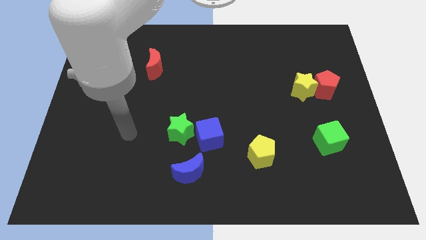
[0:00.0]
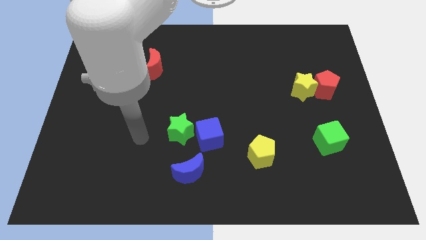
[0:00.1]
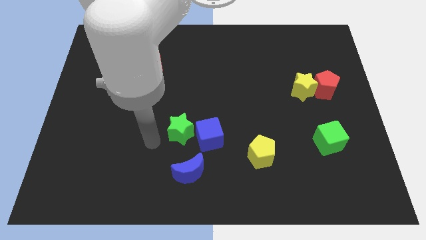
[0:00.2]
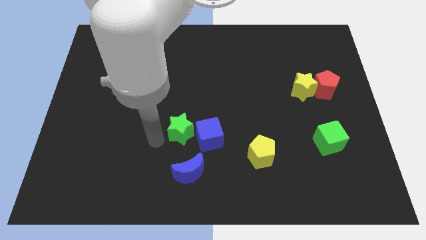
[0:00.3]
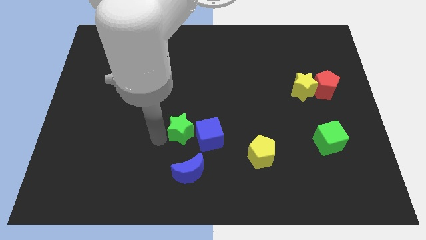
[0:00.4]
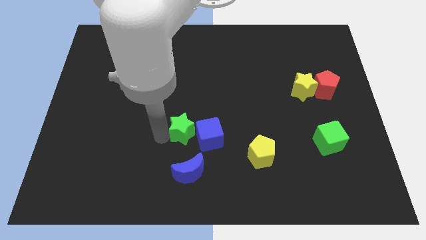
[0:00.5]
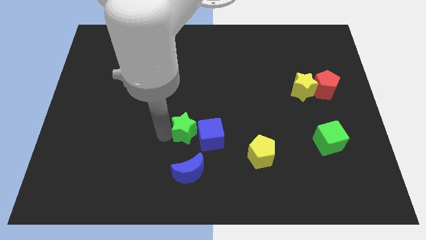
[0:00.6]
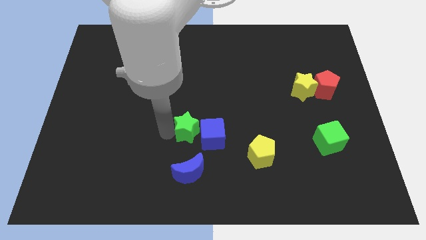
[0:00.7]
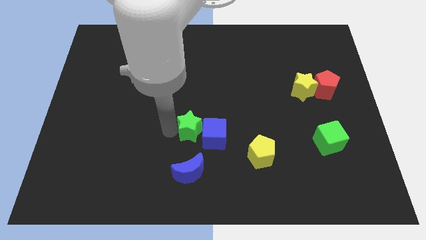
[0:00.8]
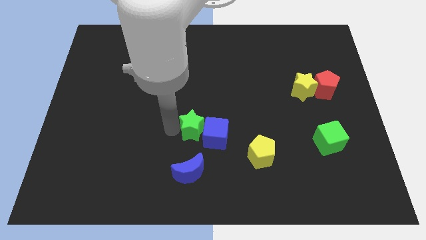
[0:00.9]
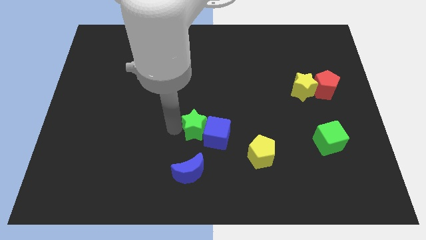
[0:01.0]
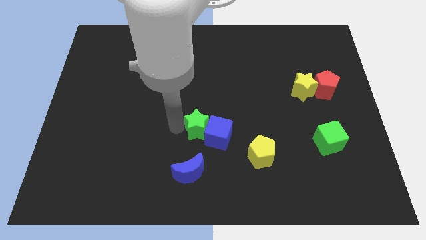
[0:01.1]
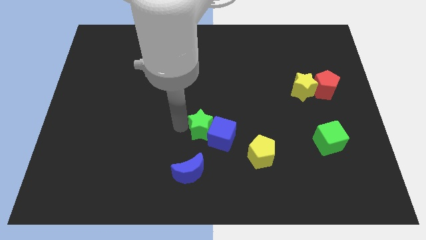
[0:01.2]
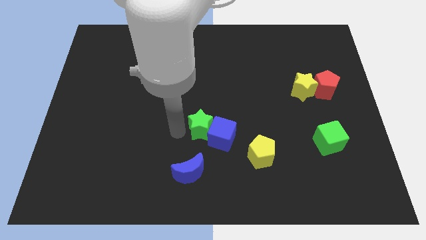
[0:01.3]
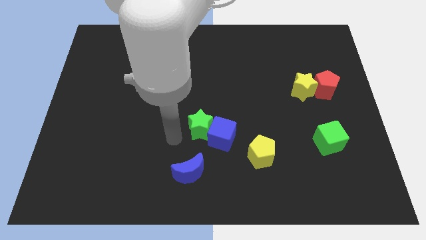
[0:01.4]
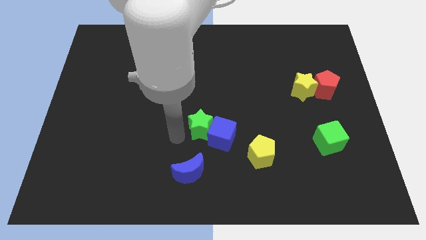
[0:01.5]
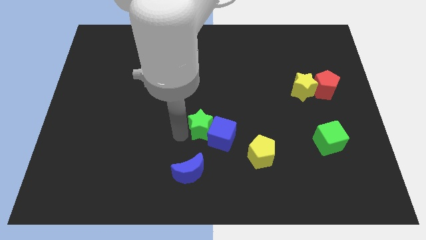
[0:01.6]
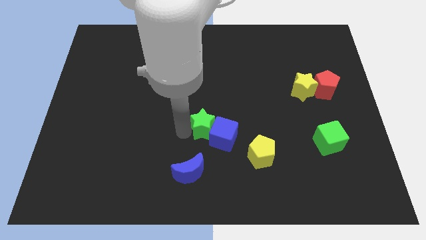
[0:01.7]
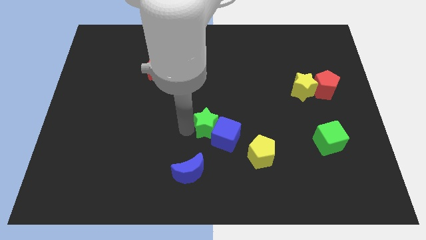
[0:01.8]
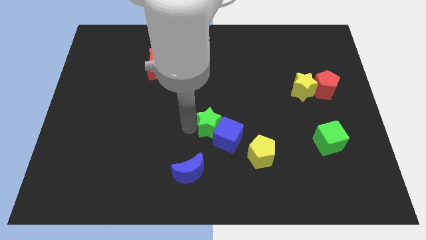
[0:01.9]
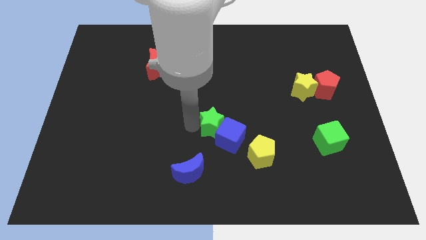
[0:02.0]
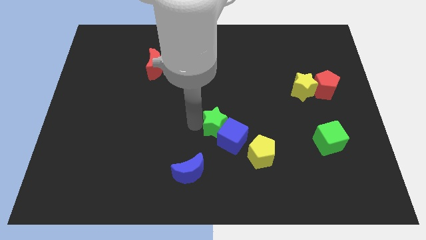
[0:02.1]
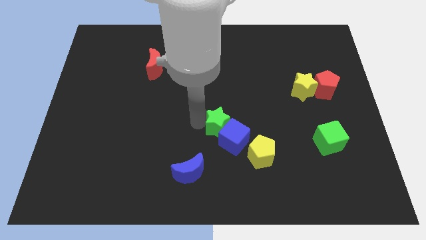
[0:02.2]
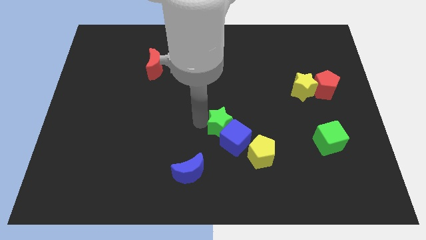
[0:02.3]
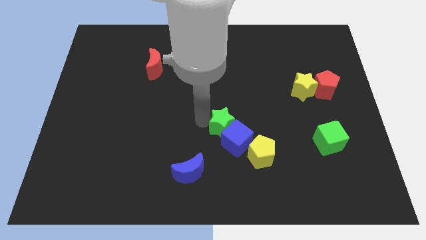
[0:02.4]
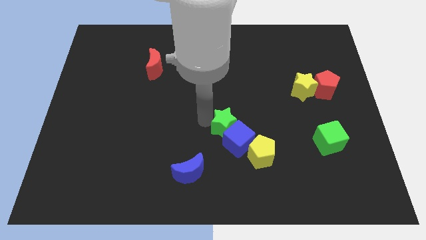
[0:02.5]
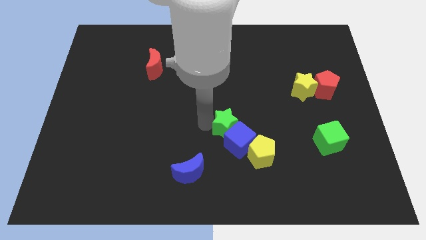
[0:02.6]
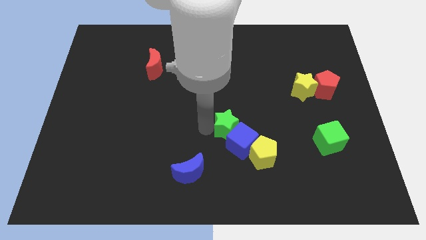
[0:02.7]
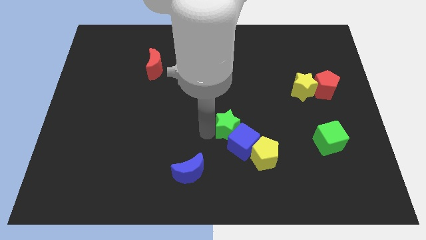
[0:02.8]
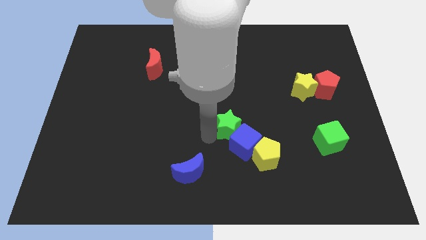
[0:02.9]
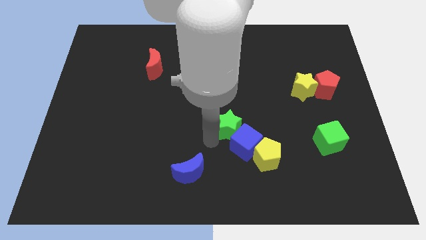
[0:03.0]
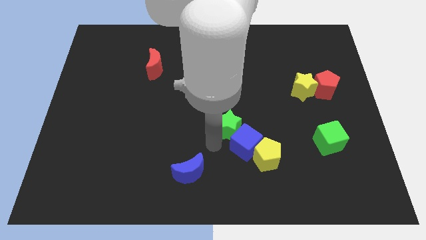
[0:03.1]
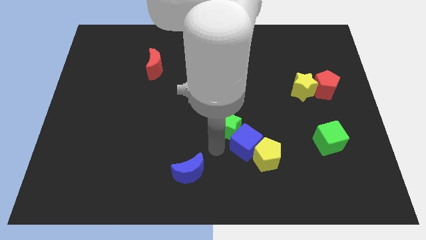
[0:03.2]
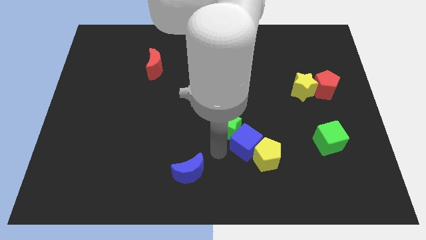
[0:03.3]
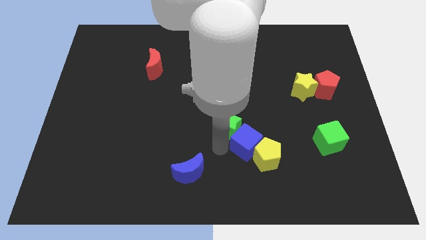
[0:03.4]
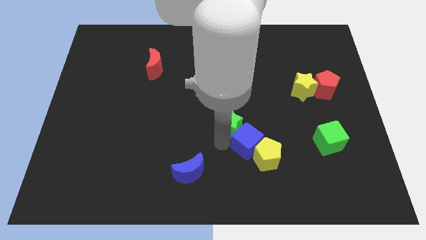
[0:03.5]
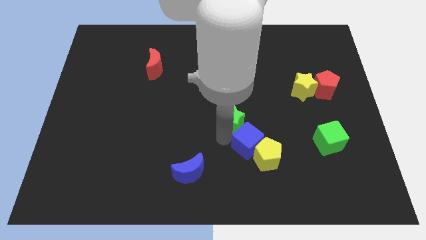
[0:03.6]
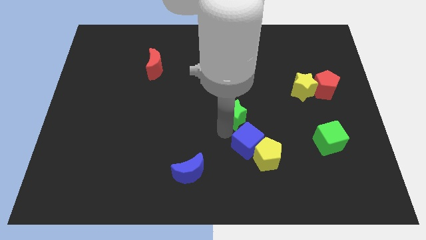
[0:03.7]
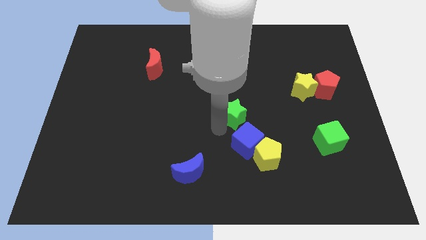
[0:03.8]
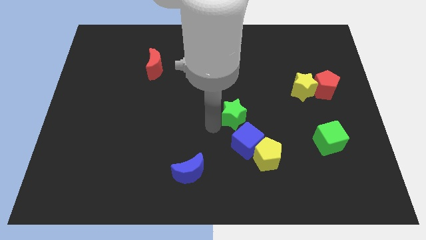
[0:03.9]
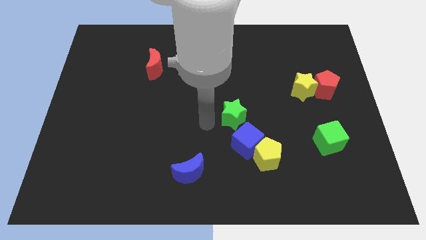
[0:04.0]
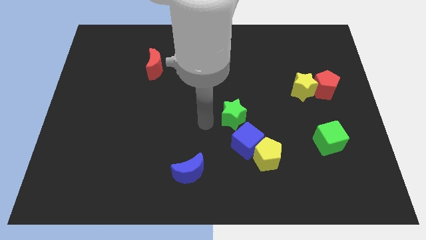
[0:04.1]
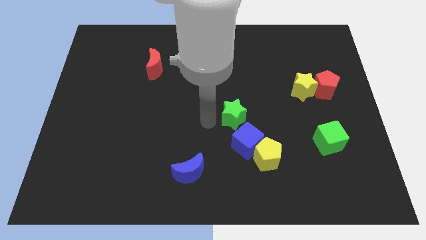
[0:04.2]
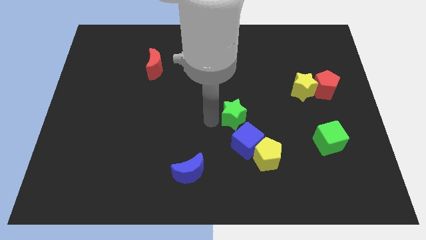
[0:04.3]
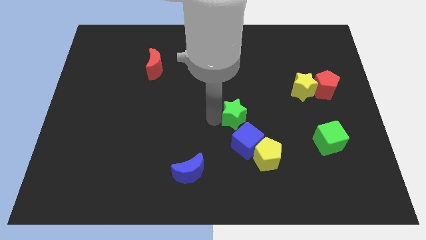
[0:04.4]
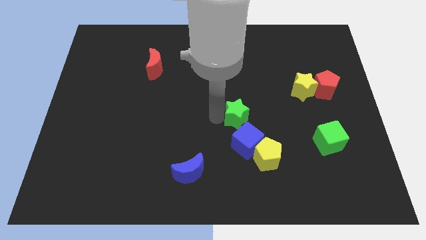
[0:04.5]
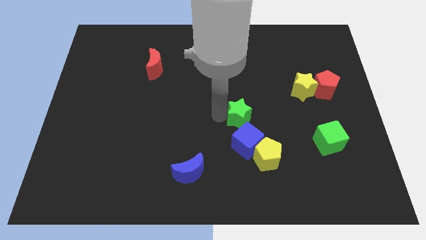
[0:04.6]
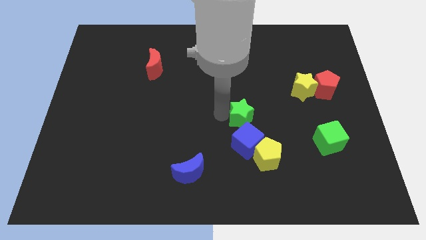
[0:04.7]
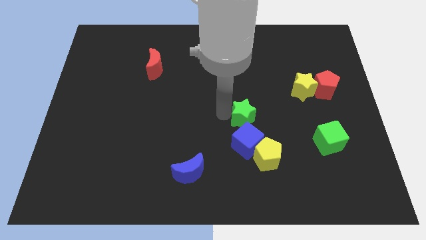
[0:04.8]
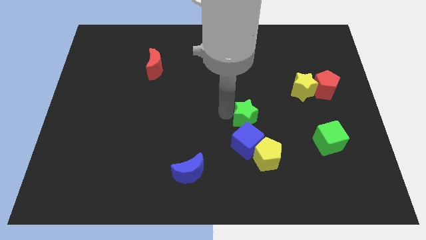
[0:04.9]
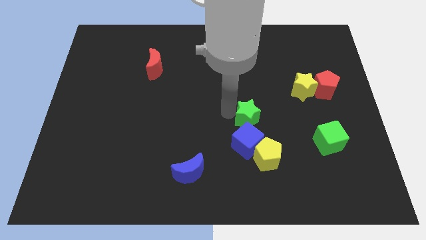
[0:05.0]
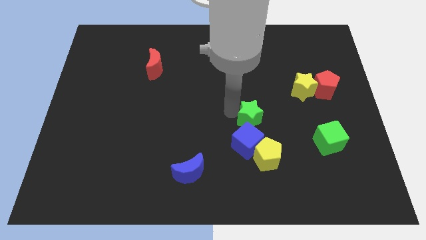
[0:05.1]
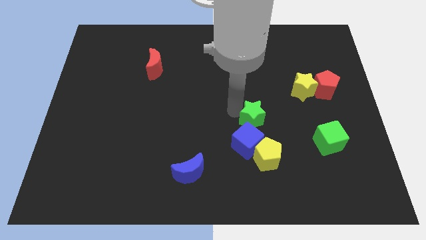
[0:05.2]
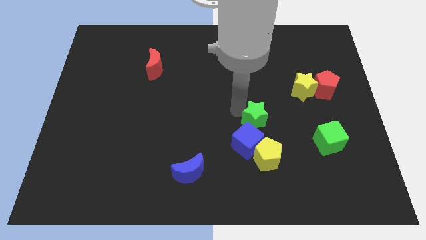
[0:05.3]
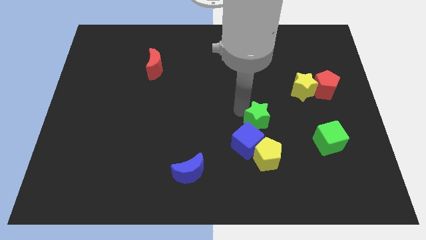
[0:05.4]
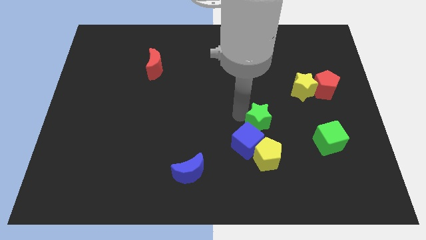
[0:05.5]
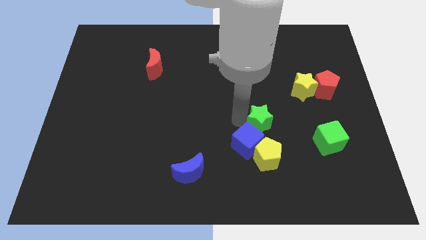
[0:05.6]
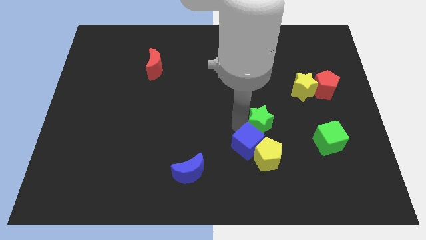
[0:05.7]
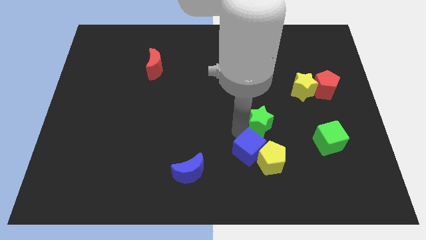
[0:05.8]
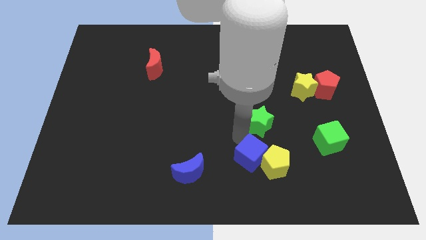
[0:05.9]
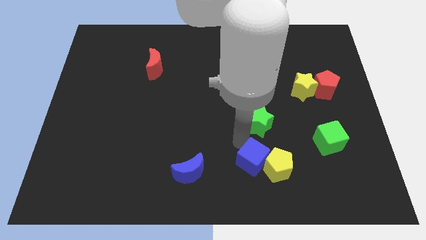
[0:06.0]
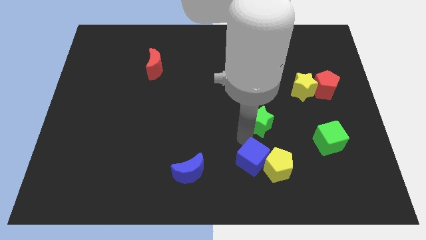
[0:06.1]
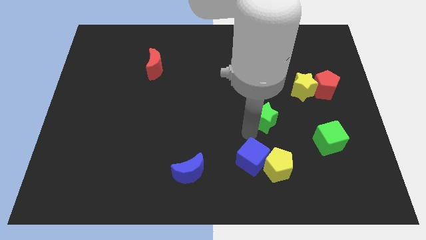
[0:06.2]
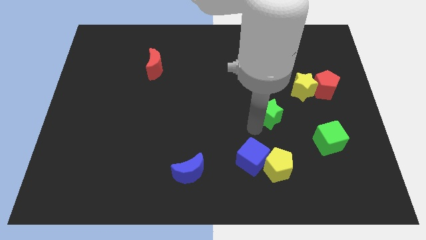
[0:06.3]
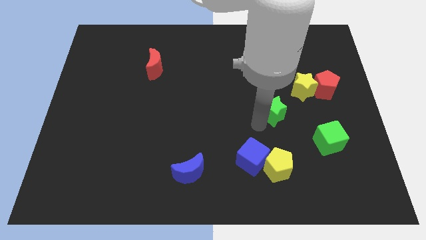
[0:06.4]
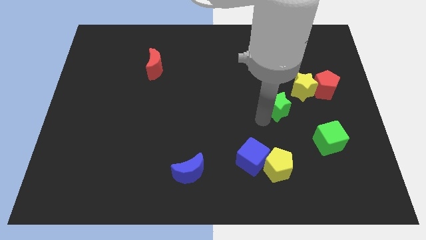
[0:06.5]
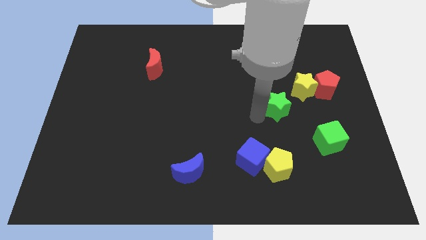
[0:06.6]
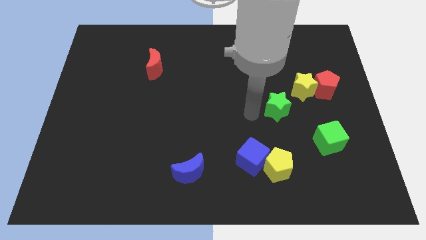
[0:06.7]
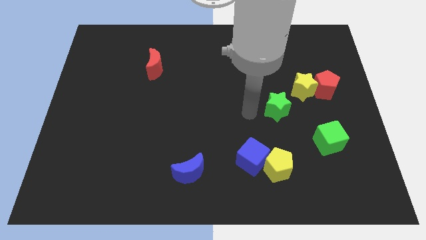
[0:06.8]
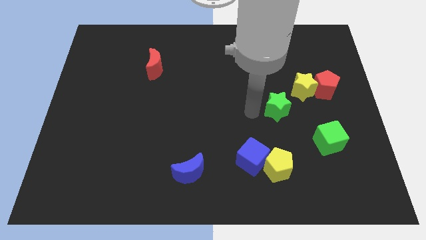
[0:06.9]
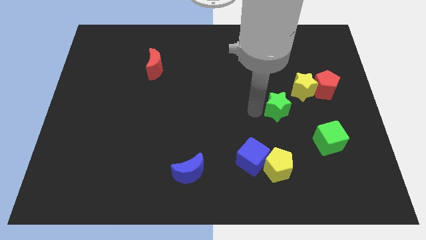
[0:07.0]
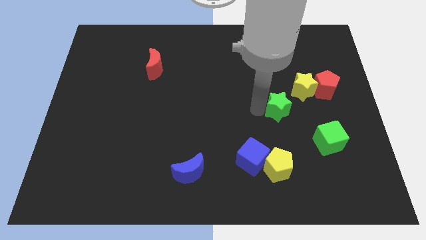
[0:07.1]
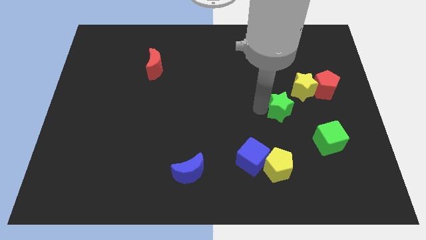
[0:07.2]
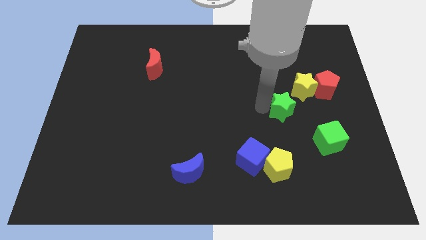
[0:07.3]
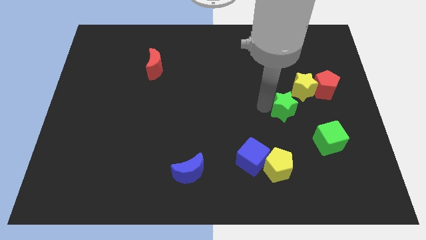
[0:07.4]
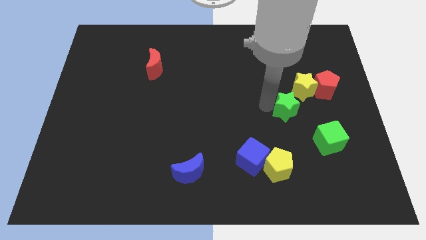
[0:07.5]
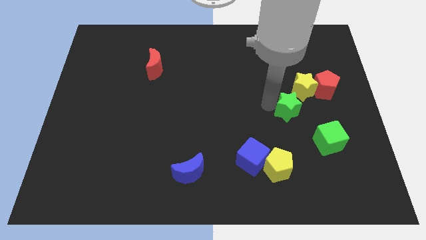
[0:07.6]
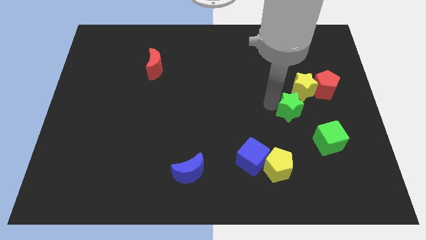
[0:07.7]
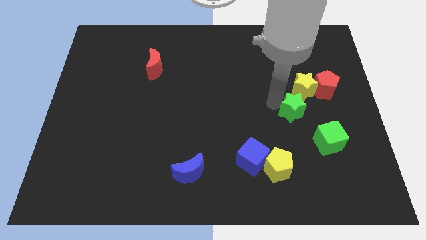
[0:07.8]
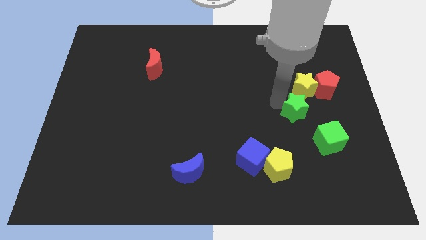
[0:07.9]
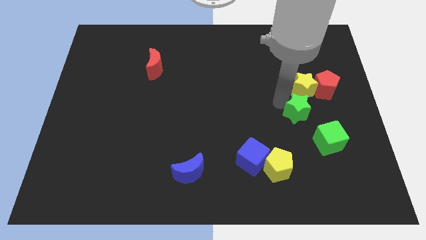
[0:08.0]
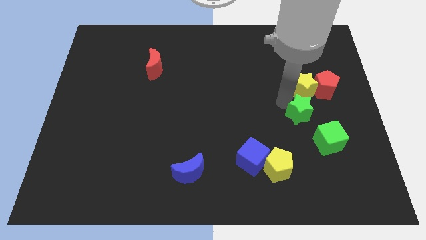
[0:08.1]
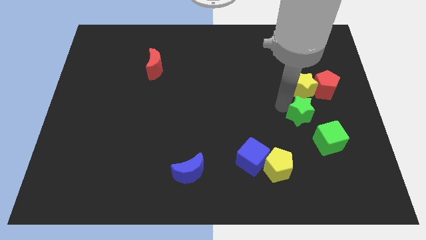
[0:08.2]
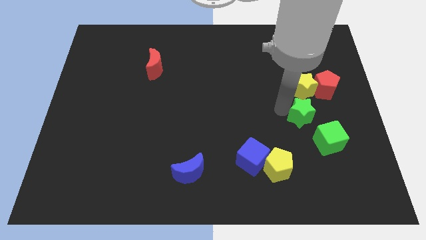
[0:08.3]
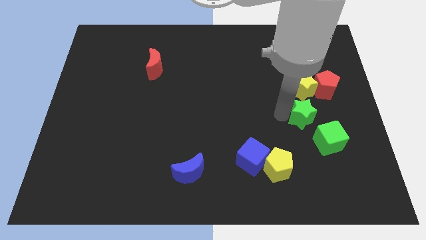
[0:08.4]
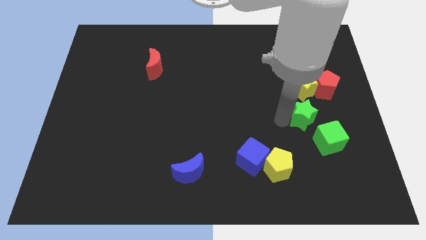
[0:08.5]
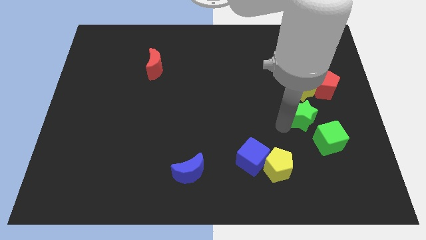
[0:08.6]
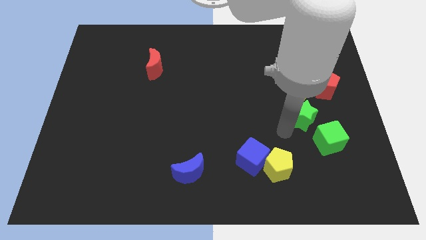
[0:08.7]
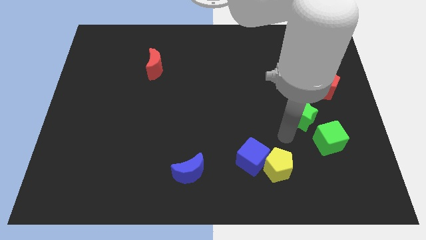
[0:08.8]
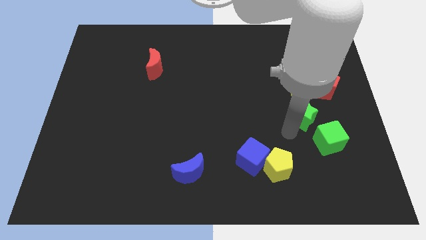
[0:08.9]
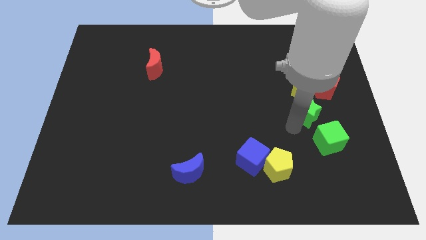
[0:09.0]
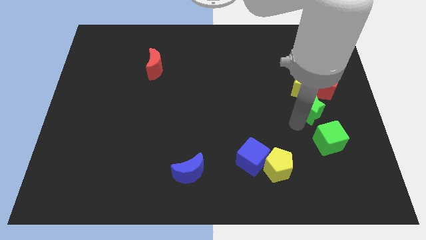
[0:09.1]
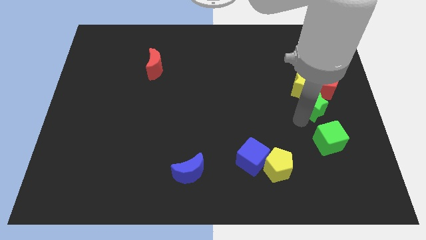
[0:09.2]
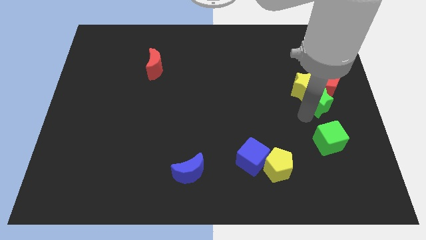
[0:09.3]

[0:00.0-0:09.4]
move the green star towards the red pentagon
